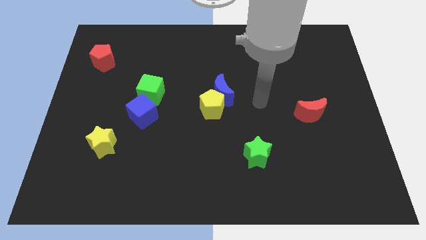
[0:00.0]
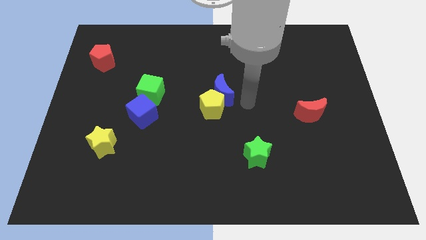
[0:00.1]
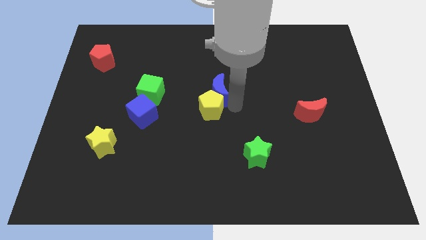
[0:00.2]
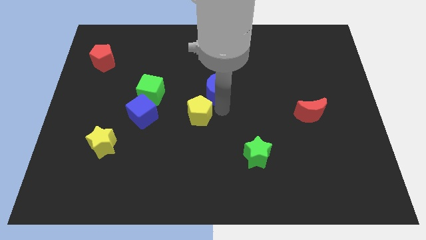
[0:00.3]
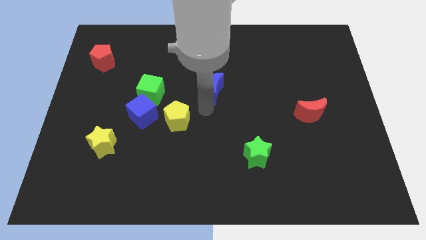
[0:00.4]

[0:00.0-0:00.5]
pull the blue moon apart from the yellow pentagon

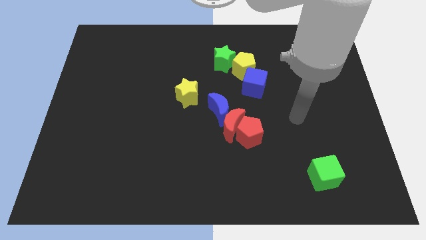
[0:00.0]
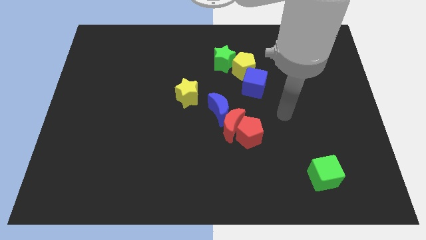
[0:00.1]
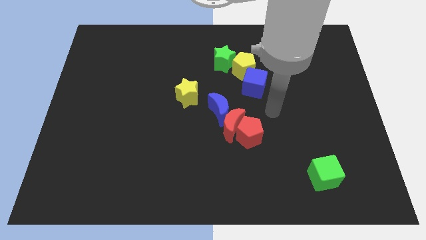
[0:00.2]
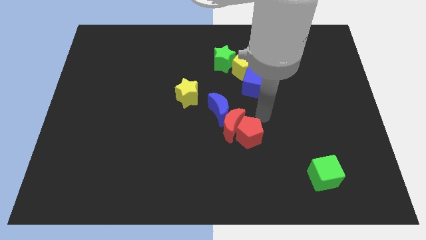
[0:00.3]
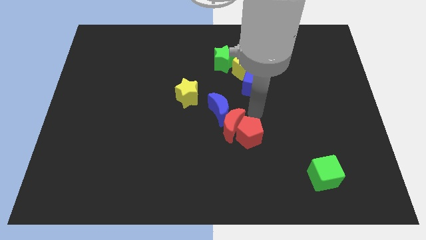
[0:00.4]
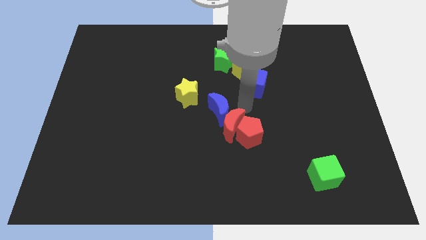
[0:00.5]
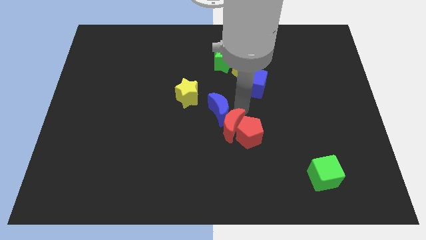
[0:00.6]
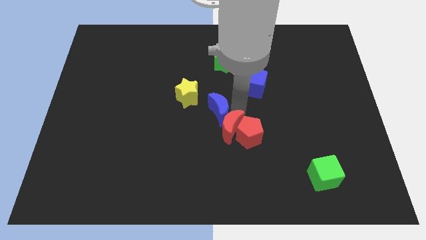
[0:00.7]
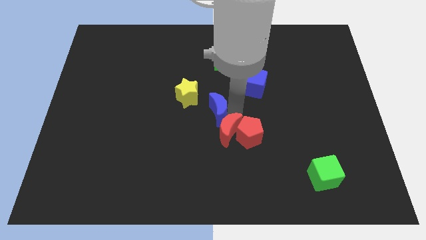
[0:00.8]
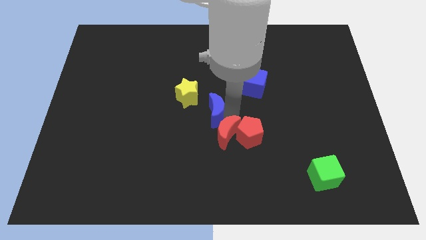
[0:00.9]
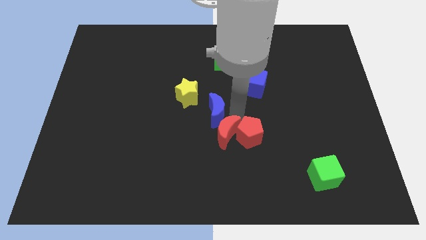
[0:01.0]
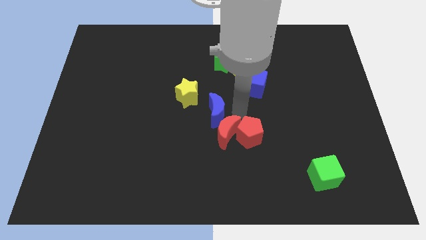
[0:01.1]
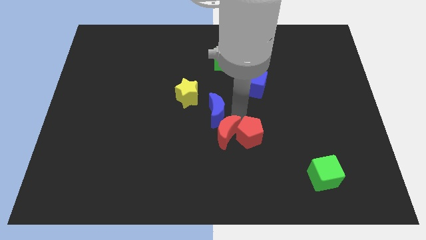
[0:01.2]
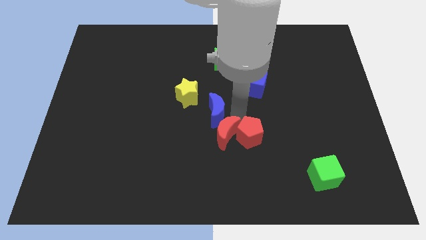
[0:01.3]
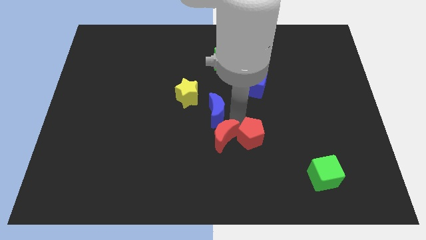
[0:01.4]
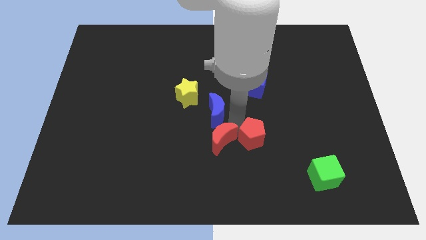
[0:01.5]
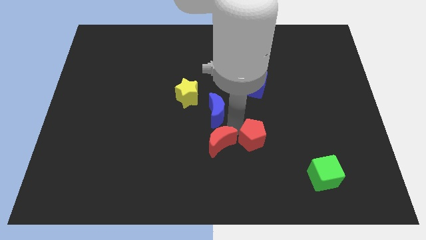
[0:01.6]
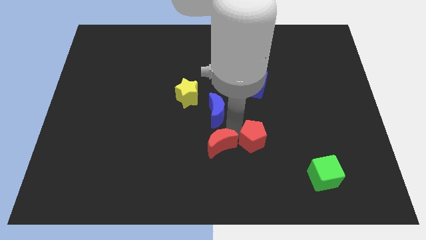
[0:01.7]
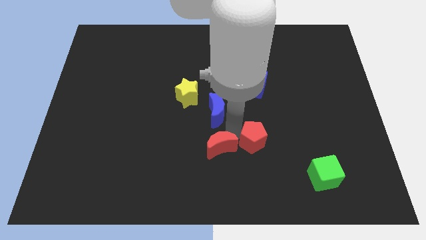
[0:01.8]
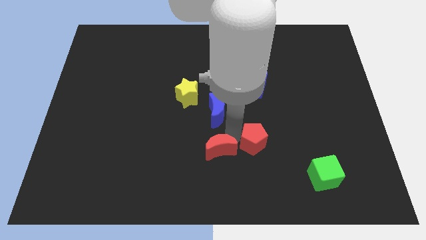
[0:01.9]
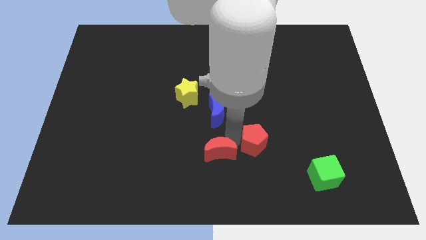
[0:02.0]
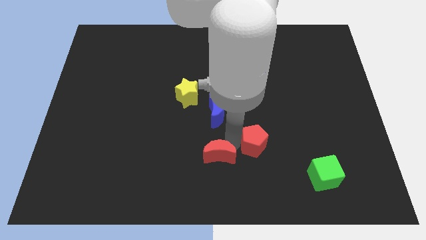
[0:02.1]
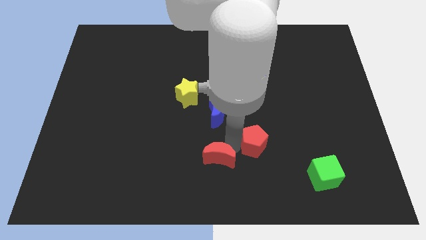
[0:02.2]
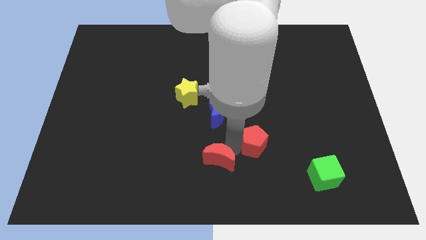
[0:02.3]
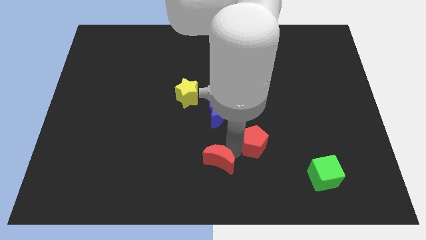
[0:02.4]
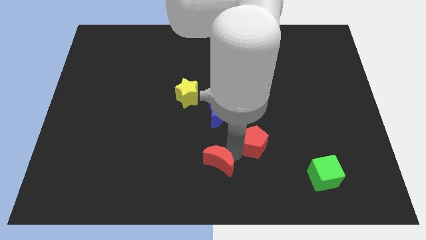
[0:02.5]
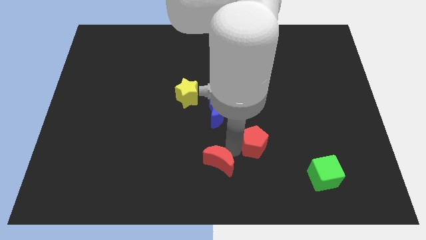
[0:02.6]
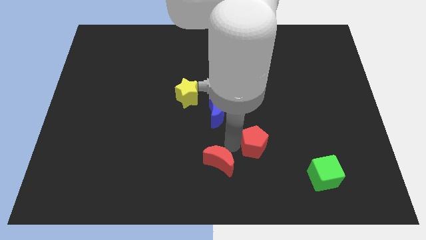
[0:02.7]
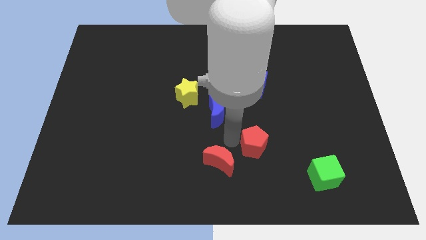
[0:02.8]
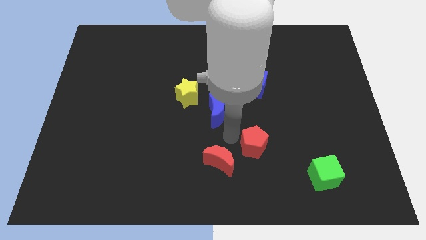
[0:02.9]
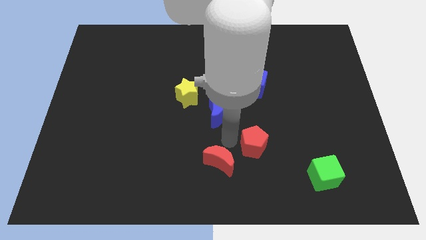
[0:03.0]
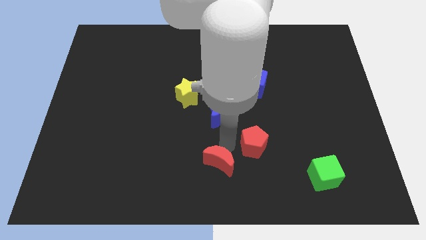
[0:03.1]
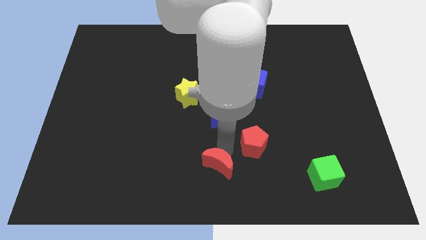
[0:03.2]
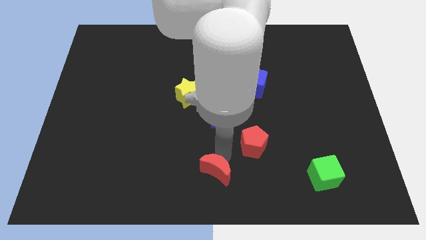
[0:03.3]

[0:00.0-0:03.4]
separate the red moon from the red pentagon and blue moon

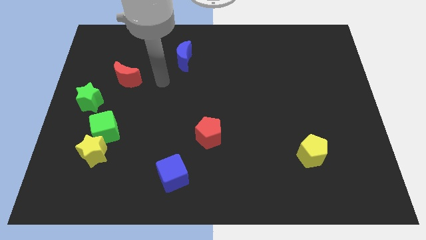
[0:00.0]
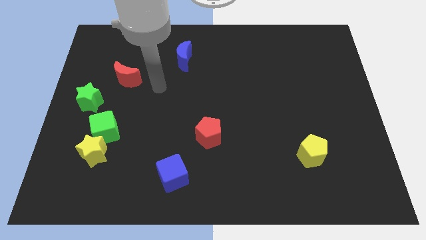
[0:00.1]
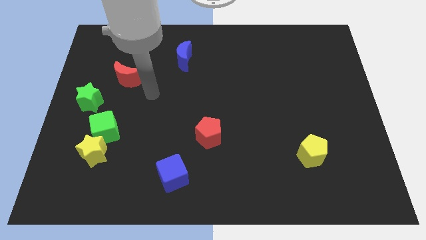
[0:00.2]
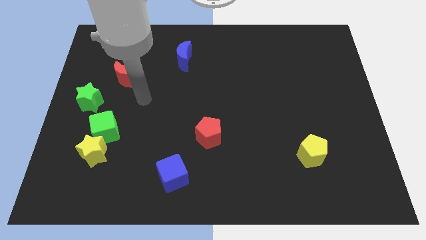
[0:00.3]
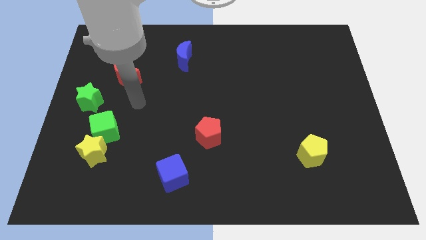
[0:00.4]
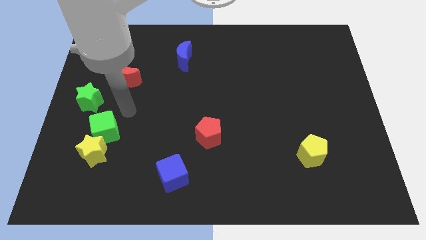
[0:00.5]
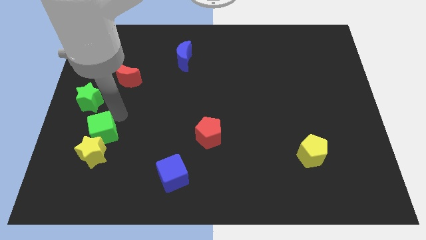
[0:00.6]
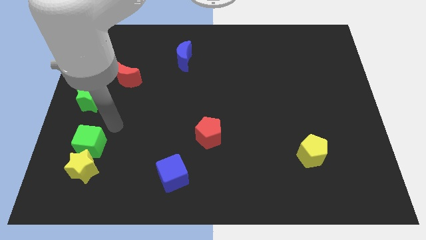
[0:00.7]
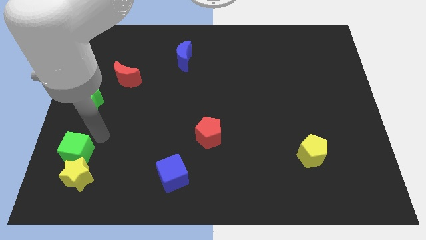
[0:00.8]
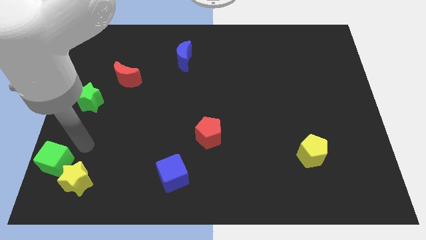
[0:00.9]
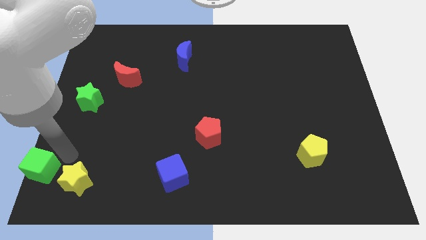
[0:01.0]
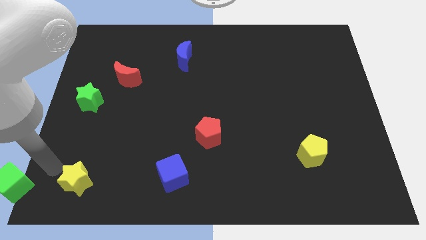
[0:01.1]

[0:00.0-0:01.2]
separate the yellow star from the green cube

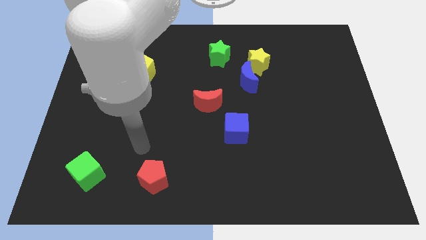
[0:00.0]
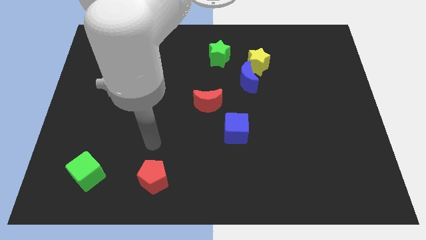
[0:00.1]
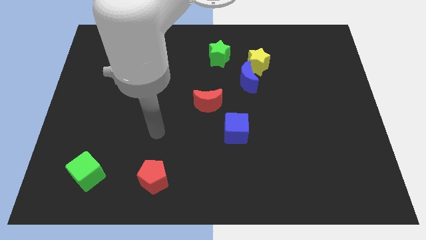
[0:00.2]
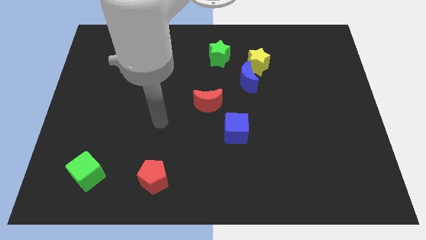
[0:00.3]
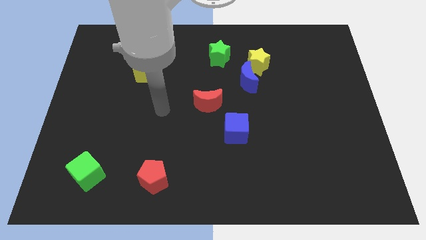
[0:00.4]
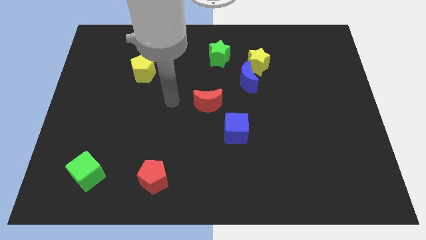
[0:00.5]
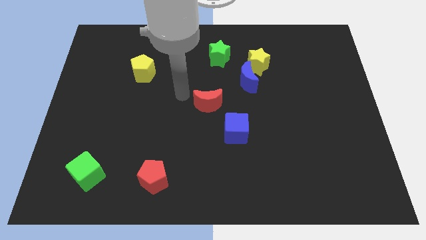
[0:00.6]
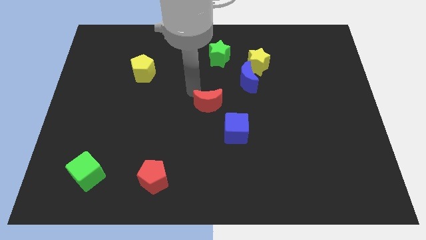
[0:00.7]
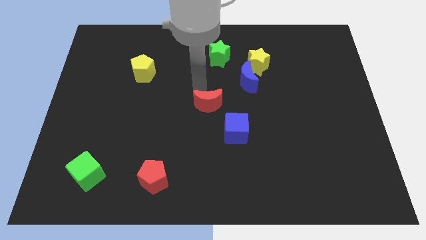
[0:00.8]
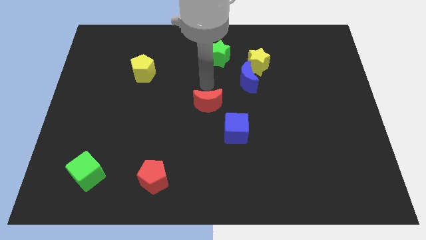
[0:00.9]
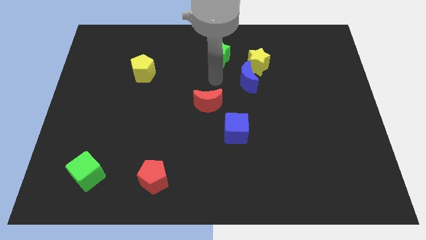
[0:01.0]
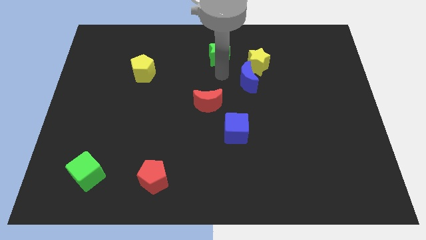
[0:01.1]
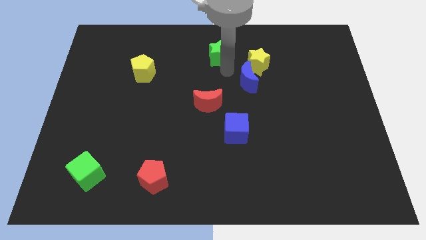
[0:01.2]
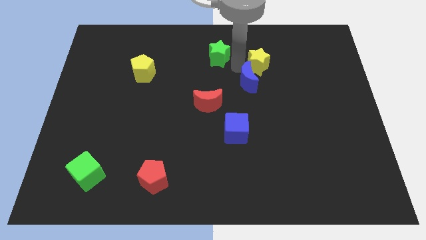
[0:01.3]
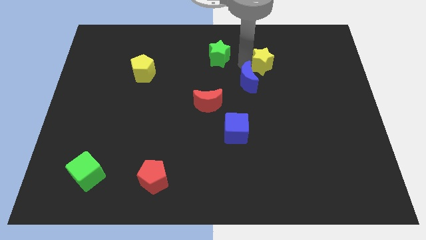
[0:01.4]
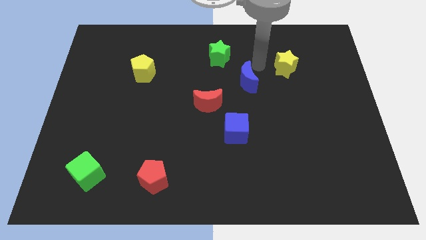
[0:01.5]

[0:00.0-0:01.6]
pull the blue moon apart from the yellow star

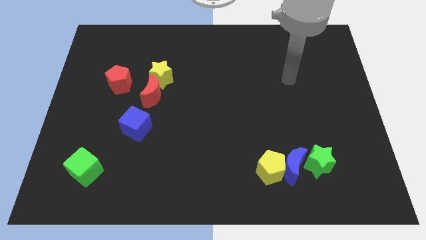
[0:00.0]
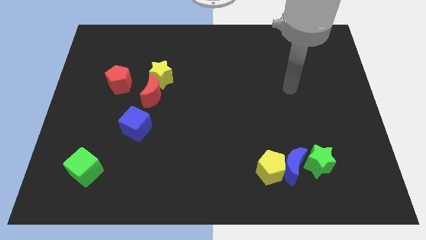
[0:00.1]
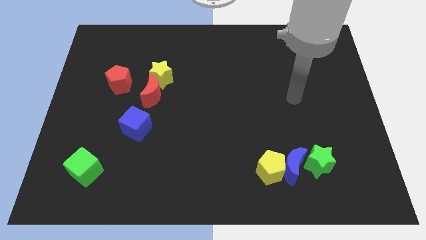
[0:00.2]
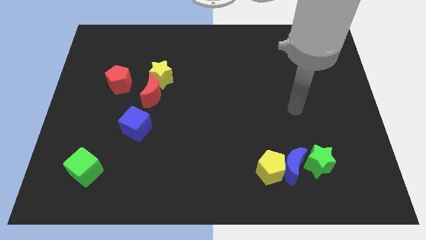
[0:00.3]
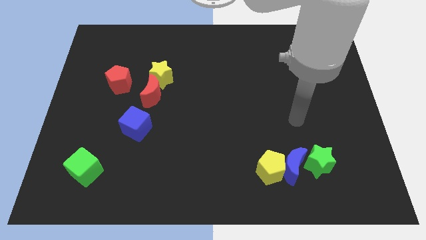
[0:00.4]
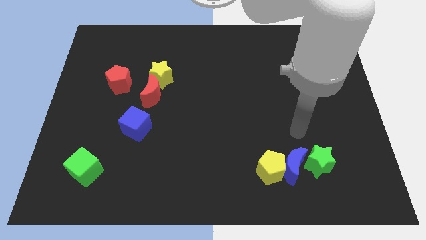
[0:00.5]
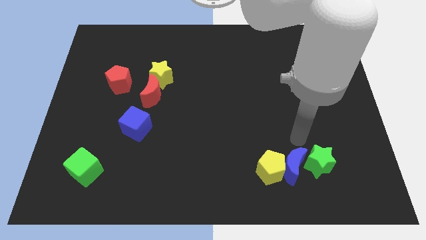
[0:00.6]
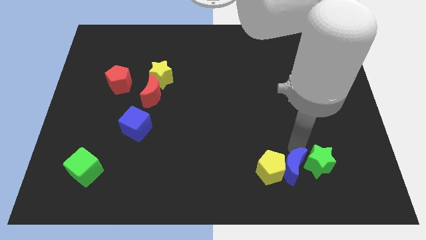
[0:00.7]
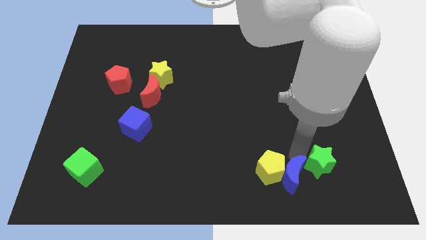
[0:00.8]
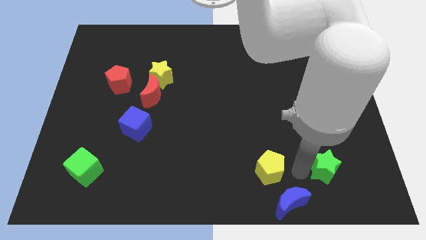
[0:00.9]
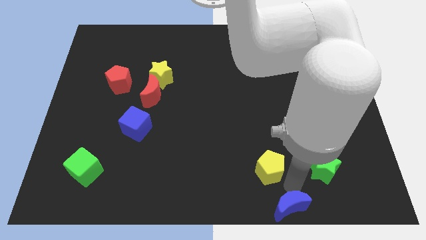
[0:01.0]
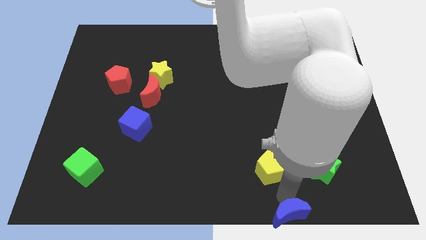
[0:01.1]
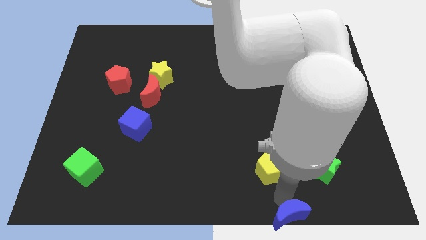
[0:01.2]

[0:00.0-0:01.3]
separate the yellow pentagon from the blue moon

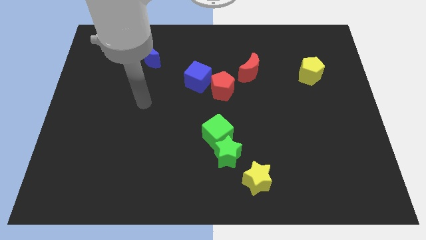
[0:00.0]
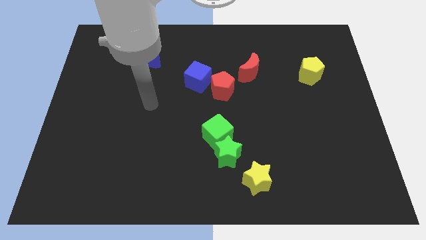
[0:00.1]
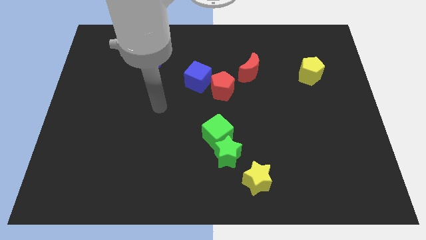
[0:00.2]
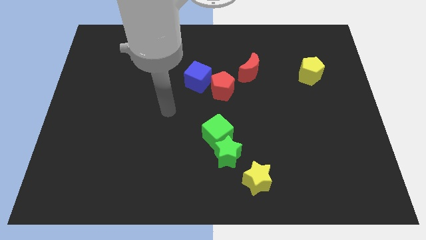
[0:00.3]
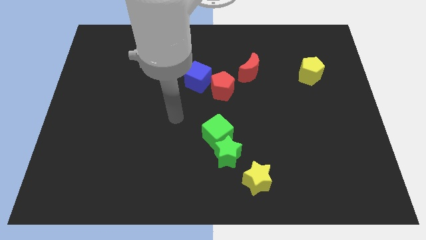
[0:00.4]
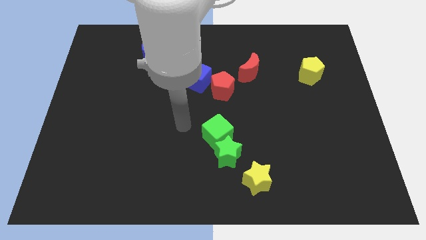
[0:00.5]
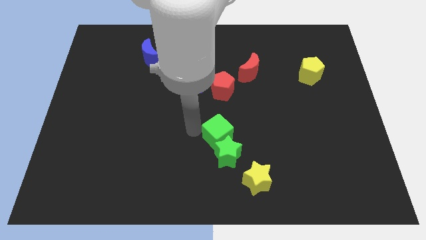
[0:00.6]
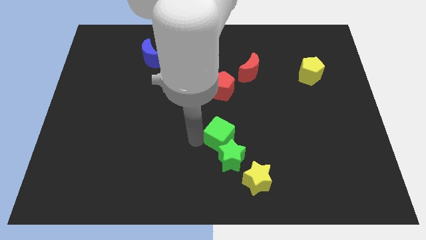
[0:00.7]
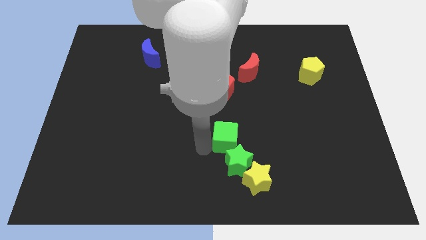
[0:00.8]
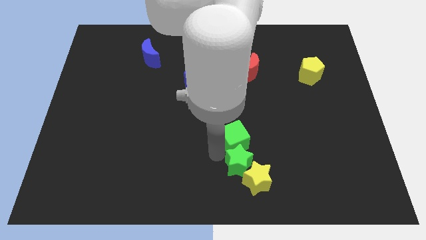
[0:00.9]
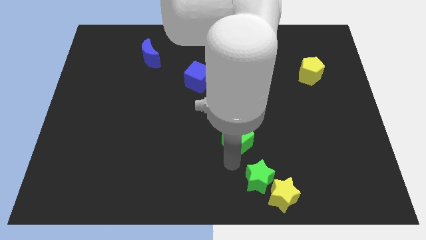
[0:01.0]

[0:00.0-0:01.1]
pull the green cube apart from the green star

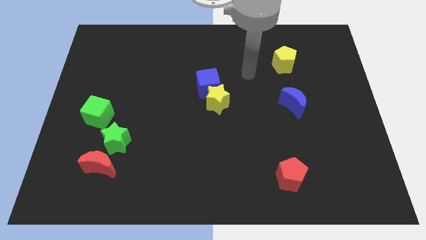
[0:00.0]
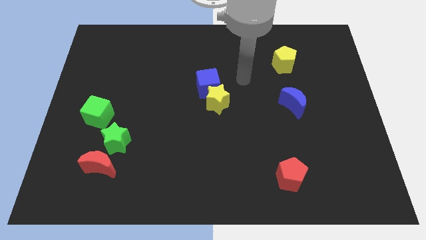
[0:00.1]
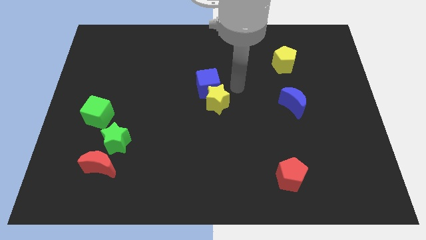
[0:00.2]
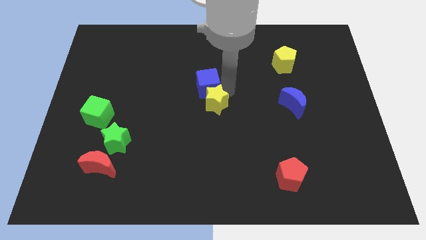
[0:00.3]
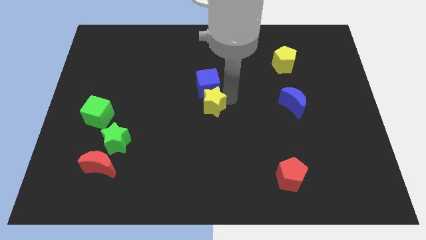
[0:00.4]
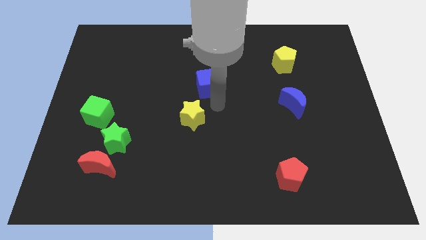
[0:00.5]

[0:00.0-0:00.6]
separate the blue cube from the yellow star
